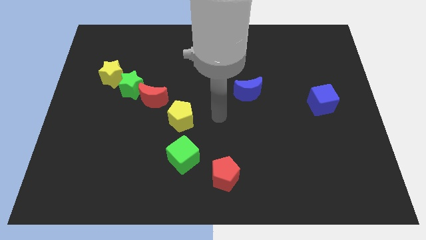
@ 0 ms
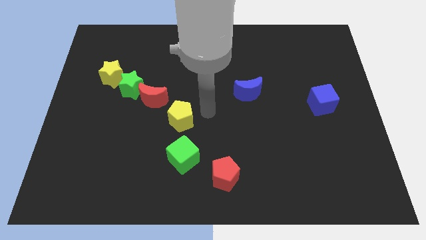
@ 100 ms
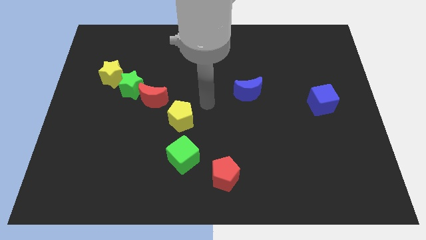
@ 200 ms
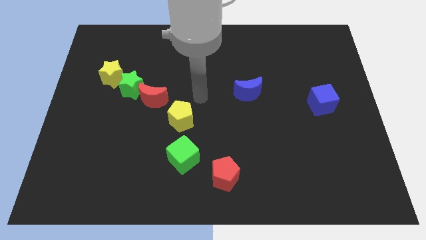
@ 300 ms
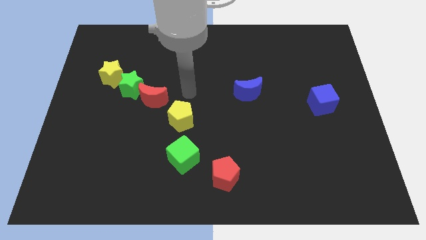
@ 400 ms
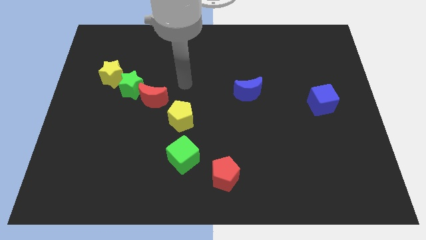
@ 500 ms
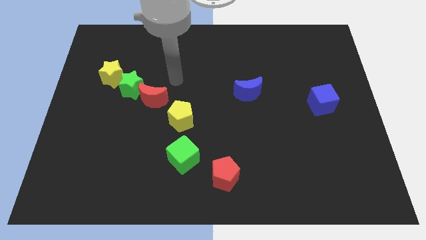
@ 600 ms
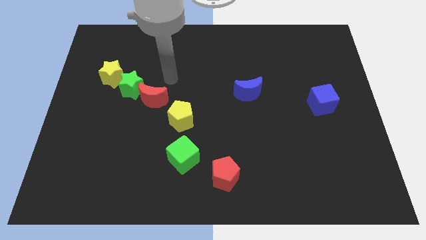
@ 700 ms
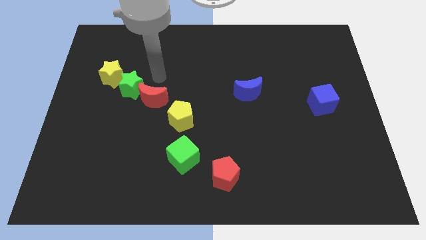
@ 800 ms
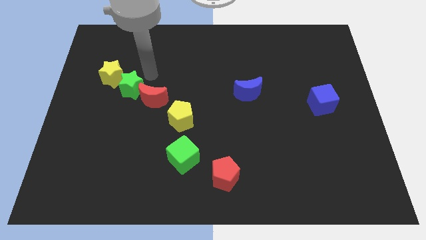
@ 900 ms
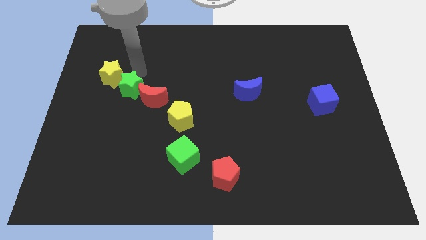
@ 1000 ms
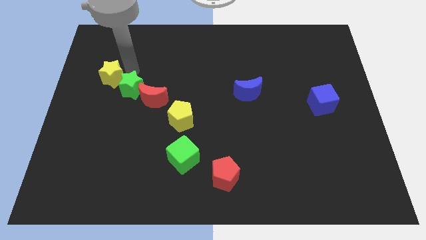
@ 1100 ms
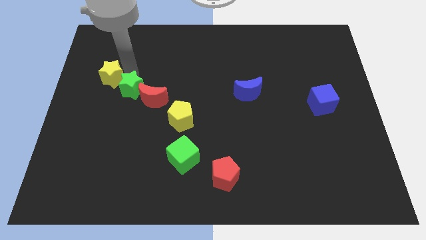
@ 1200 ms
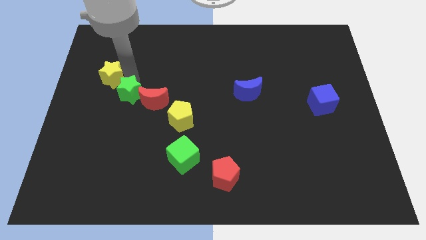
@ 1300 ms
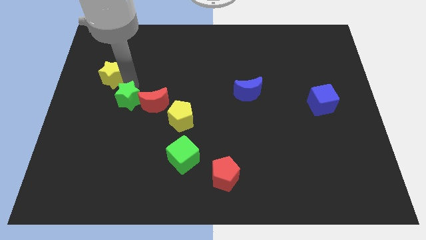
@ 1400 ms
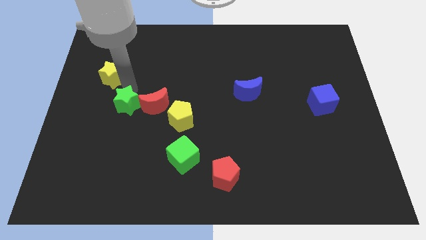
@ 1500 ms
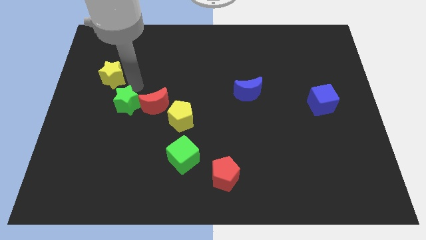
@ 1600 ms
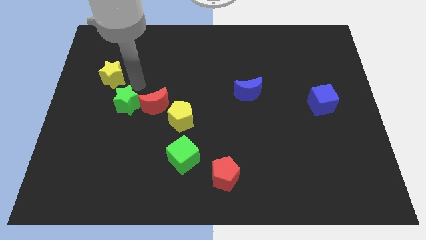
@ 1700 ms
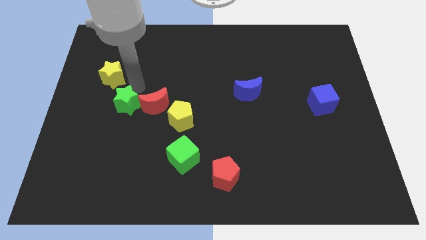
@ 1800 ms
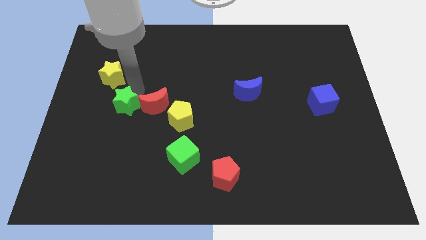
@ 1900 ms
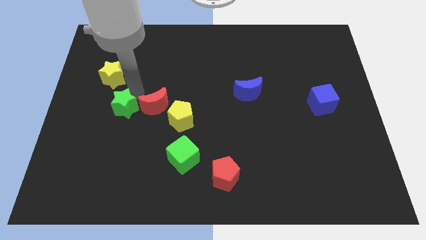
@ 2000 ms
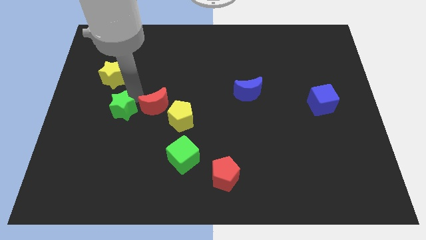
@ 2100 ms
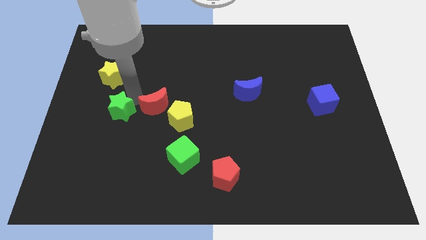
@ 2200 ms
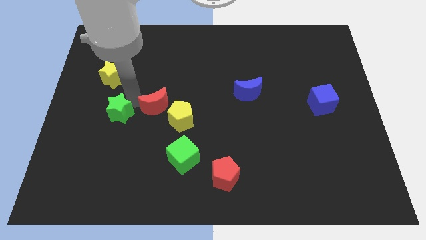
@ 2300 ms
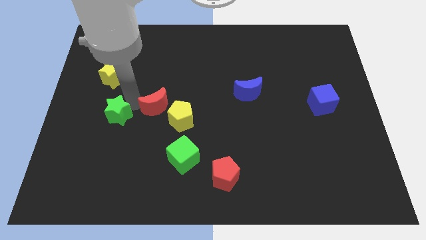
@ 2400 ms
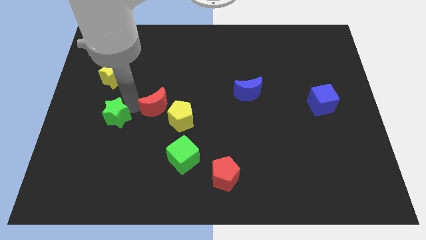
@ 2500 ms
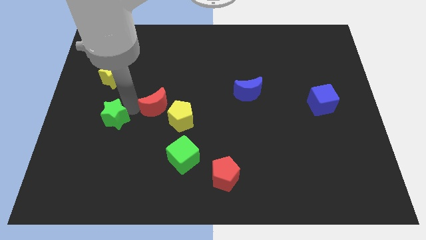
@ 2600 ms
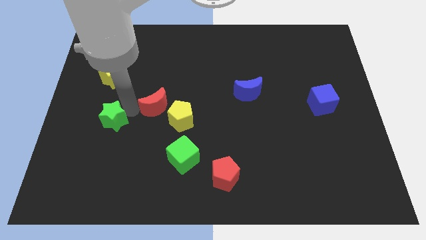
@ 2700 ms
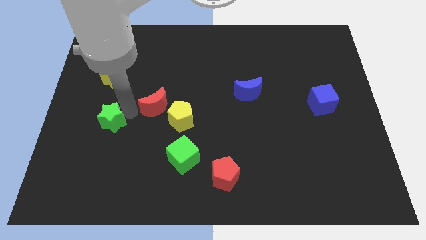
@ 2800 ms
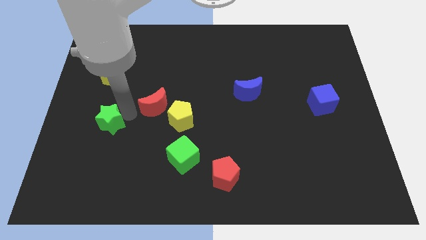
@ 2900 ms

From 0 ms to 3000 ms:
separate the green star from the red moon and yellow star

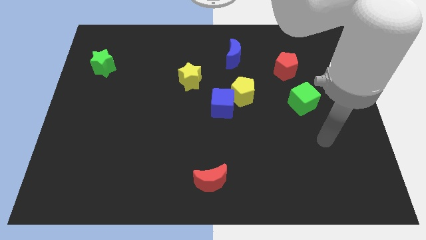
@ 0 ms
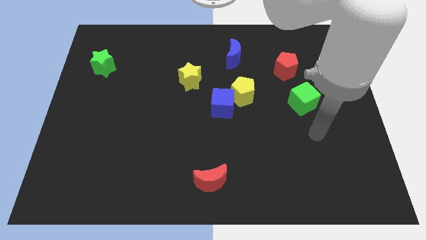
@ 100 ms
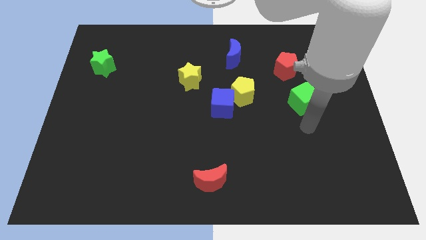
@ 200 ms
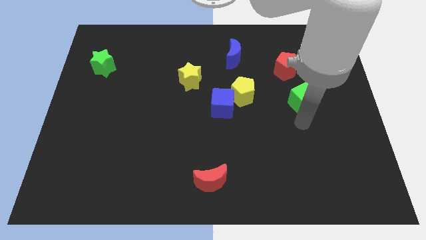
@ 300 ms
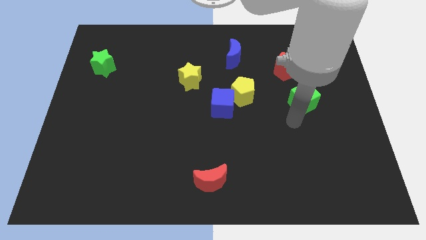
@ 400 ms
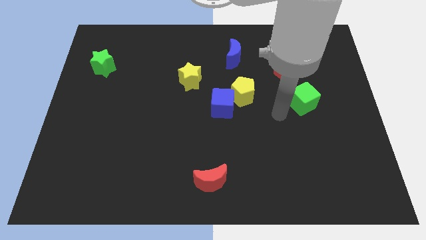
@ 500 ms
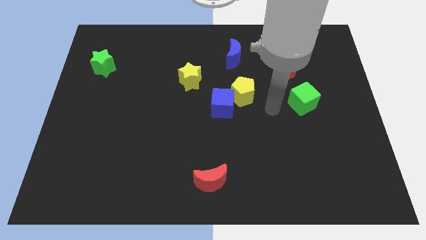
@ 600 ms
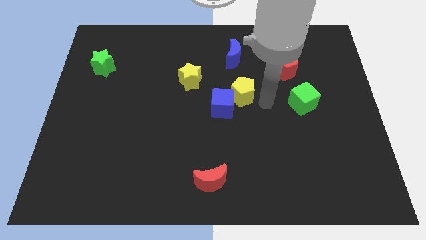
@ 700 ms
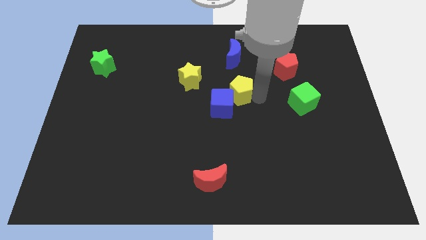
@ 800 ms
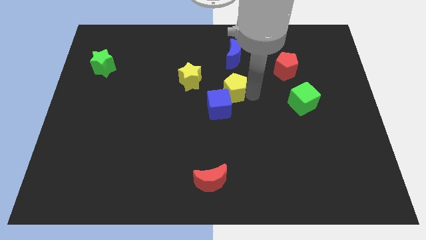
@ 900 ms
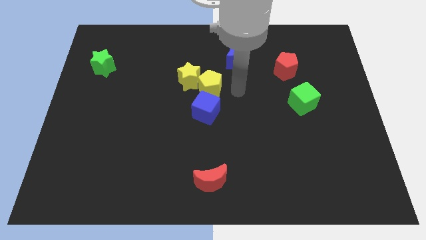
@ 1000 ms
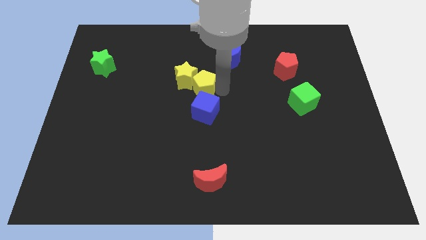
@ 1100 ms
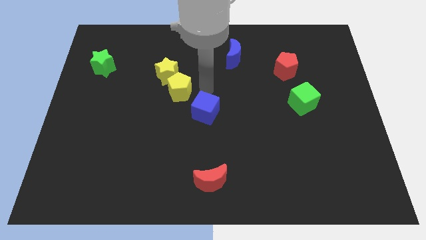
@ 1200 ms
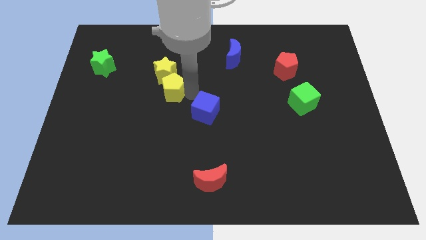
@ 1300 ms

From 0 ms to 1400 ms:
separate the blue cube from the yellow pentagon

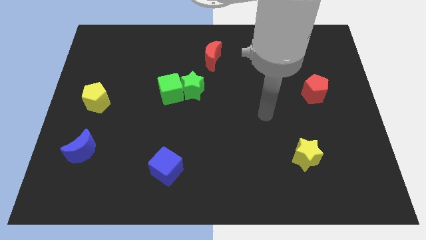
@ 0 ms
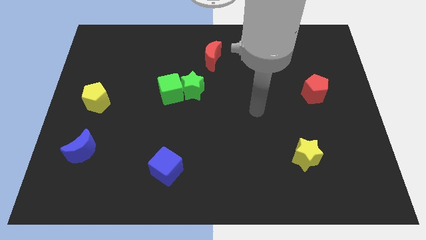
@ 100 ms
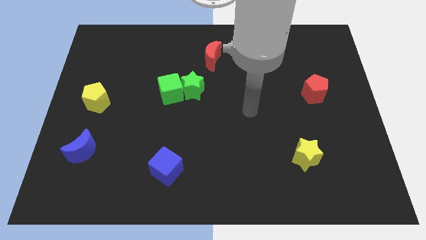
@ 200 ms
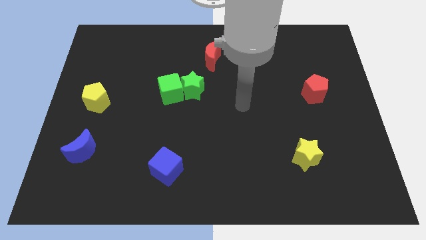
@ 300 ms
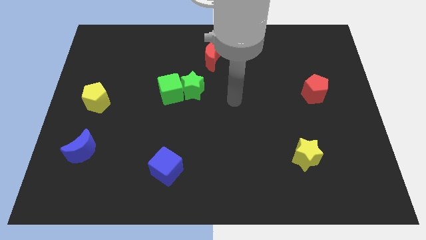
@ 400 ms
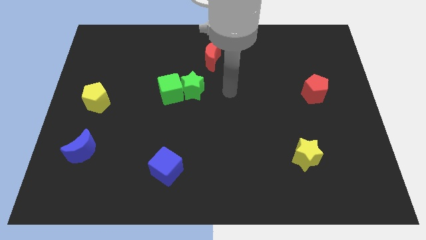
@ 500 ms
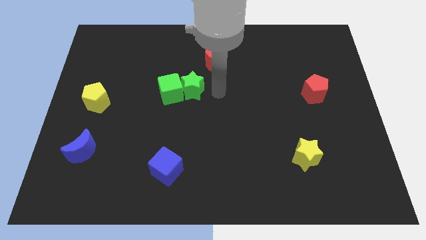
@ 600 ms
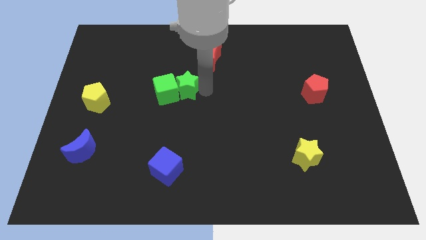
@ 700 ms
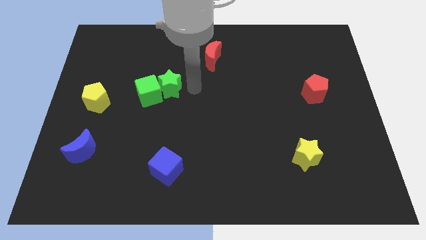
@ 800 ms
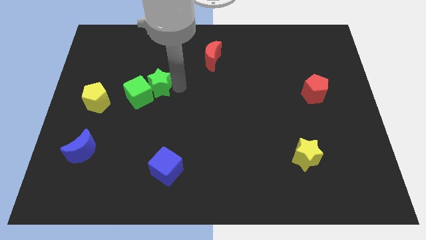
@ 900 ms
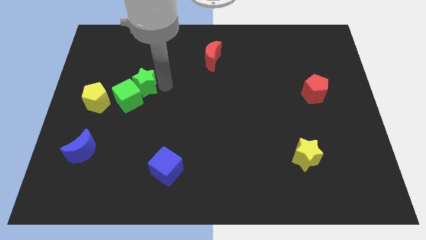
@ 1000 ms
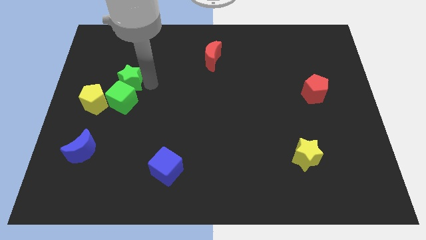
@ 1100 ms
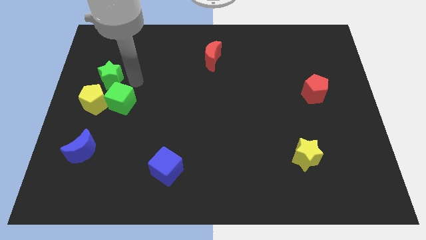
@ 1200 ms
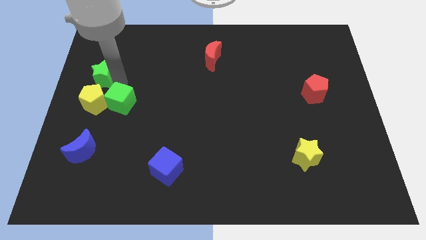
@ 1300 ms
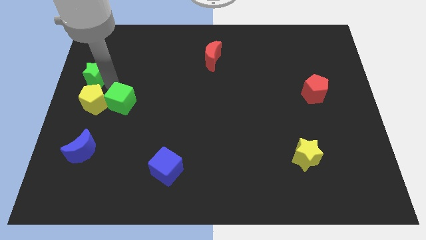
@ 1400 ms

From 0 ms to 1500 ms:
separate the green cube from the green star

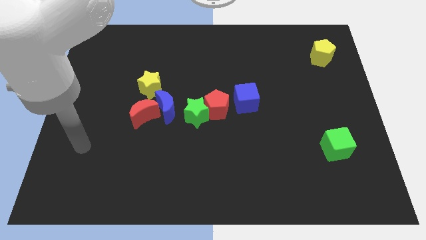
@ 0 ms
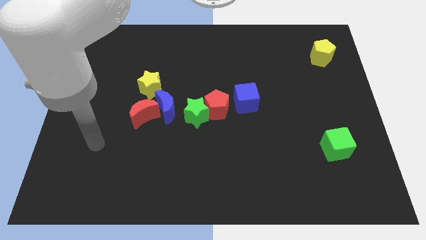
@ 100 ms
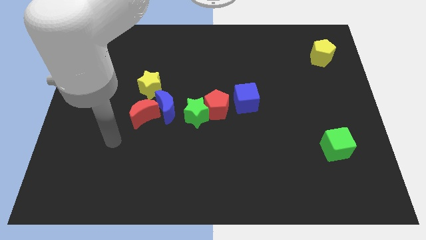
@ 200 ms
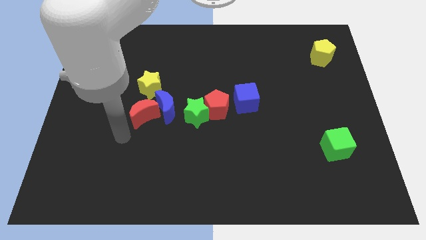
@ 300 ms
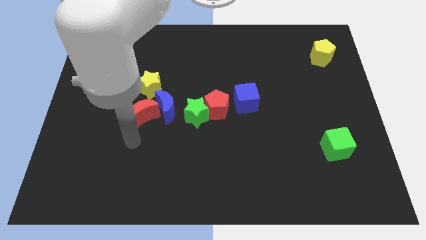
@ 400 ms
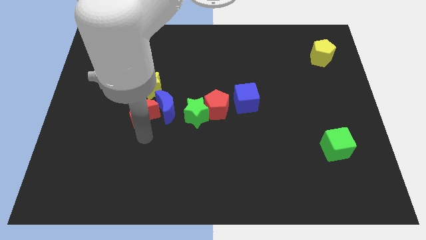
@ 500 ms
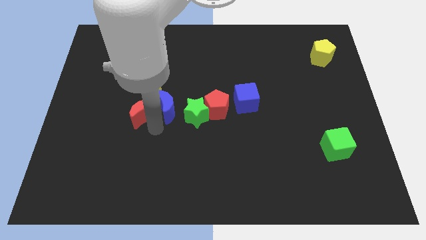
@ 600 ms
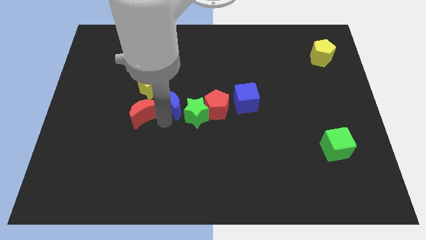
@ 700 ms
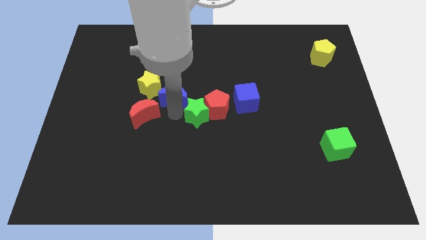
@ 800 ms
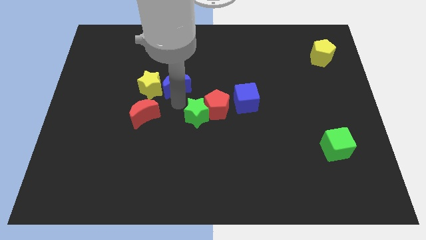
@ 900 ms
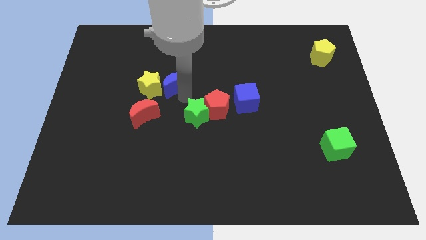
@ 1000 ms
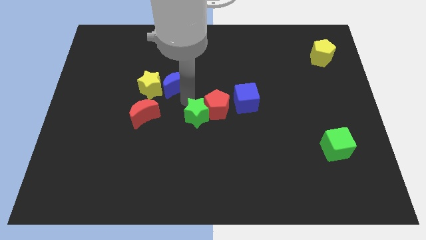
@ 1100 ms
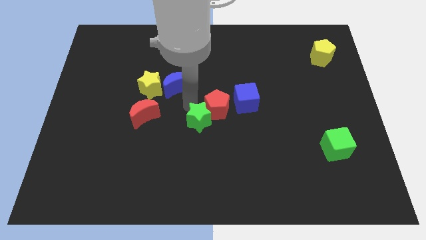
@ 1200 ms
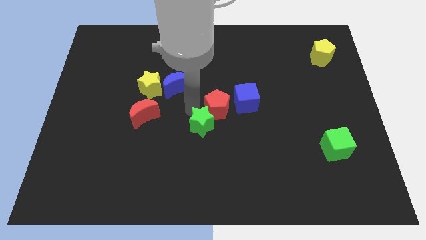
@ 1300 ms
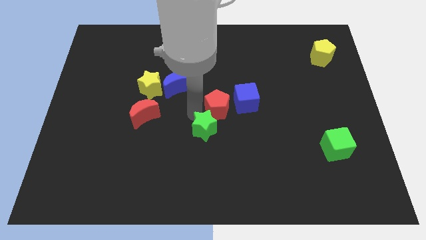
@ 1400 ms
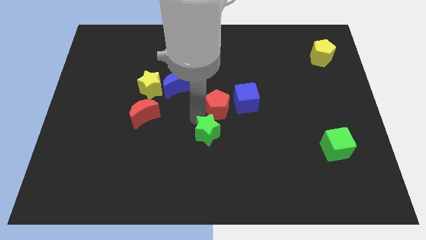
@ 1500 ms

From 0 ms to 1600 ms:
pull the green star apart from the red pentagon and blue moon

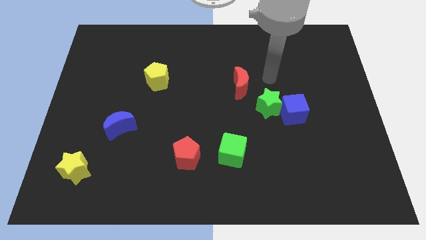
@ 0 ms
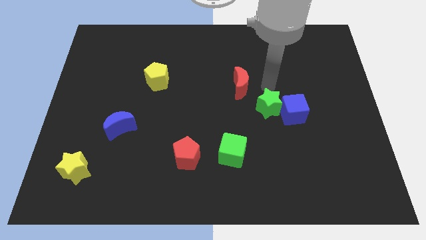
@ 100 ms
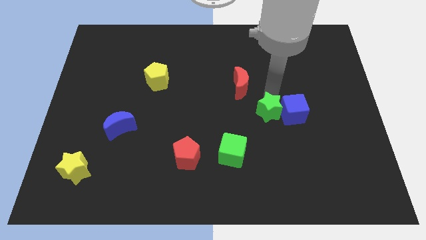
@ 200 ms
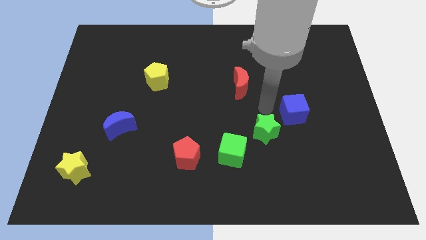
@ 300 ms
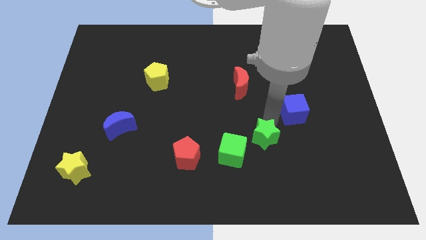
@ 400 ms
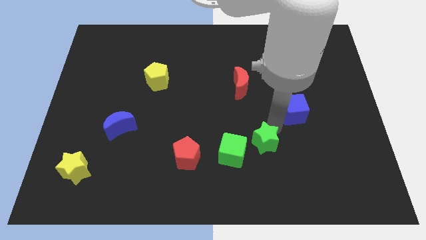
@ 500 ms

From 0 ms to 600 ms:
move the blue cube away from the green star

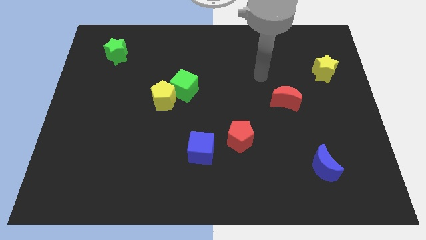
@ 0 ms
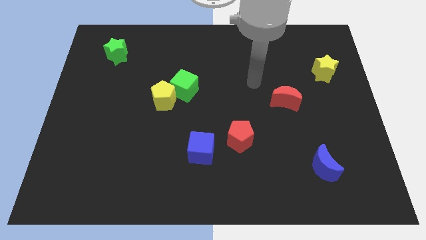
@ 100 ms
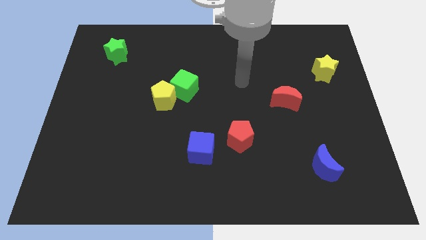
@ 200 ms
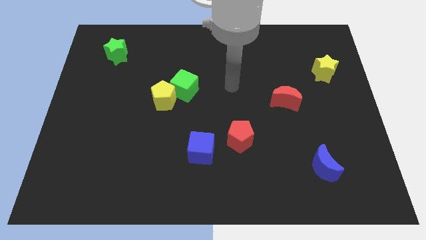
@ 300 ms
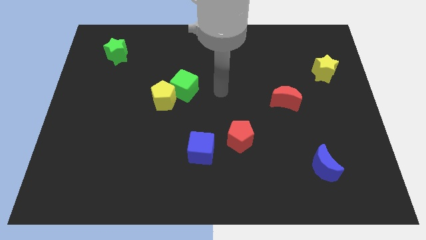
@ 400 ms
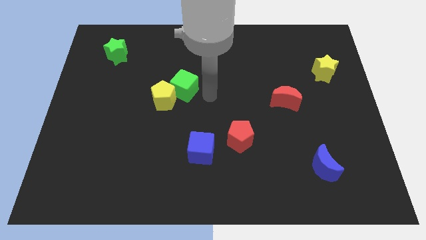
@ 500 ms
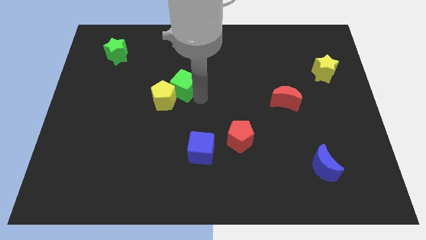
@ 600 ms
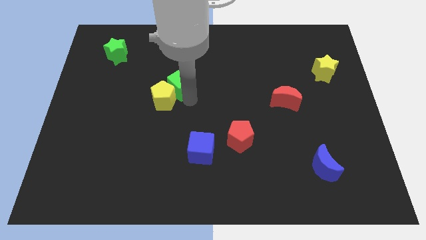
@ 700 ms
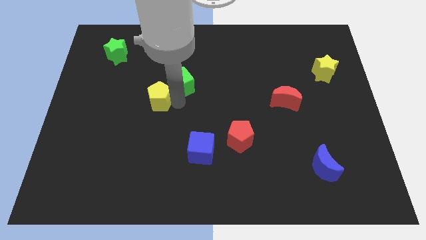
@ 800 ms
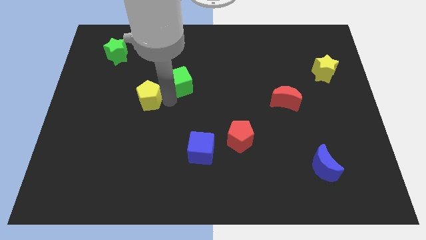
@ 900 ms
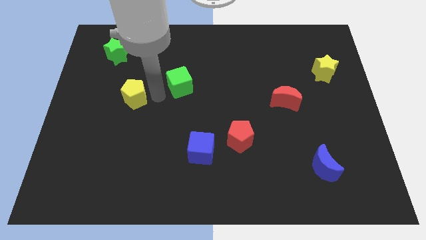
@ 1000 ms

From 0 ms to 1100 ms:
separate the green cube from the yellow pentagon
